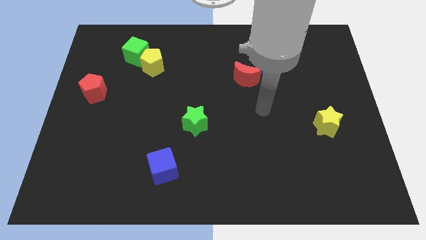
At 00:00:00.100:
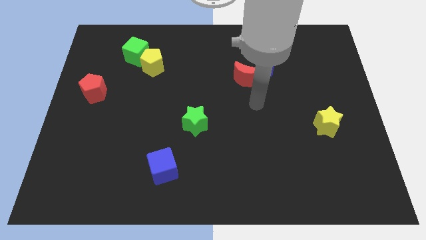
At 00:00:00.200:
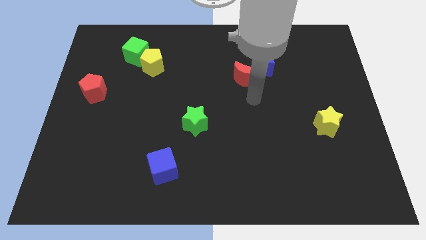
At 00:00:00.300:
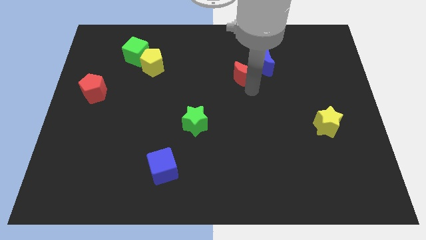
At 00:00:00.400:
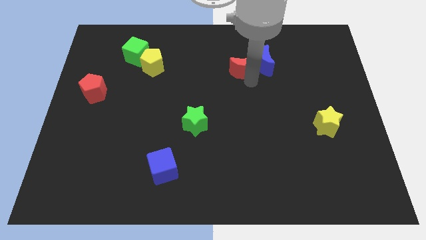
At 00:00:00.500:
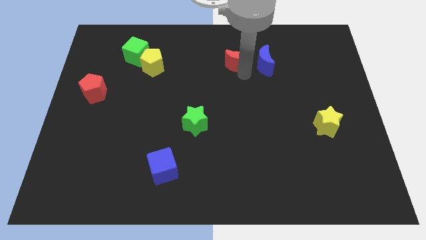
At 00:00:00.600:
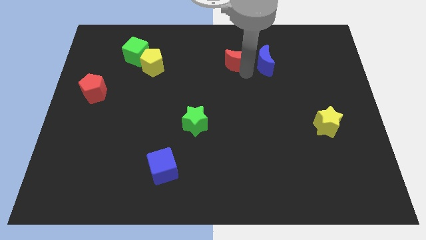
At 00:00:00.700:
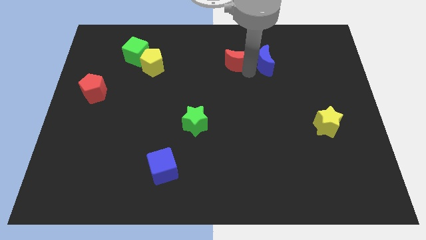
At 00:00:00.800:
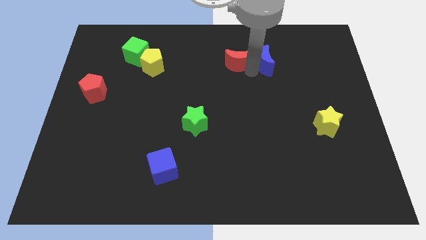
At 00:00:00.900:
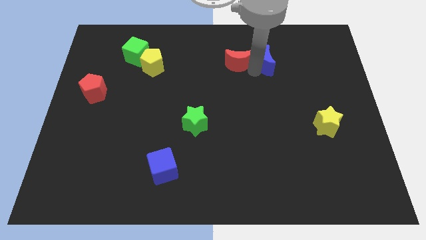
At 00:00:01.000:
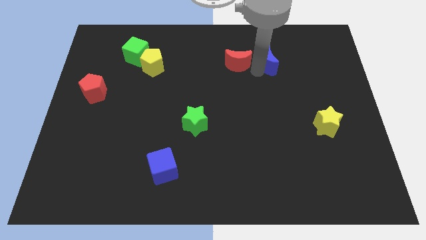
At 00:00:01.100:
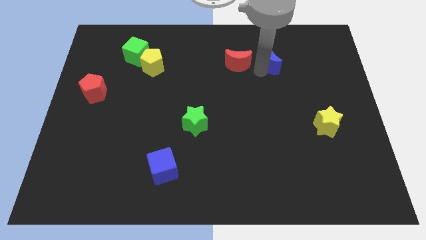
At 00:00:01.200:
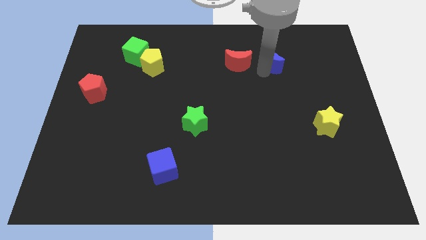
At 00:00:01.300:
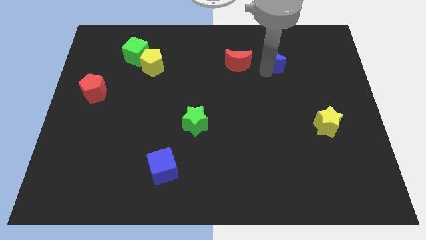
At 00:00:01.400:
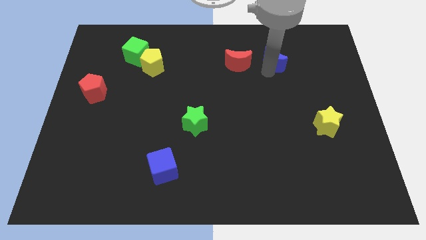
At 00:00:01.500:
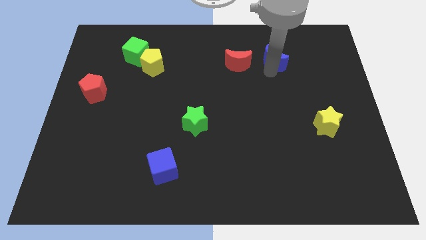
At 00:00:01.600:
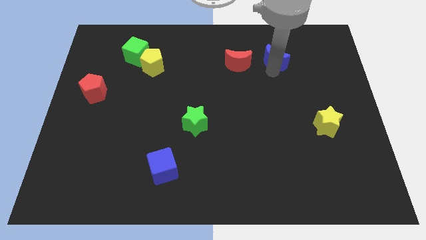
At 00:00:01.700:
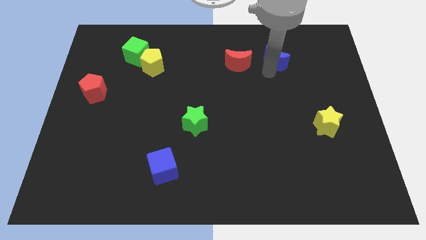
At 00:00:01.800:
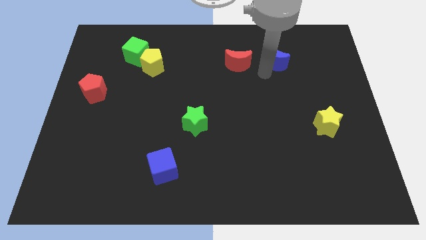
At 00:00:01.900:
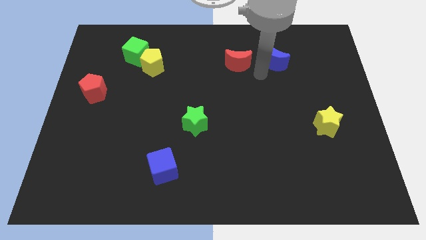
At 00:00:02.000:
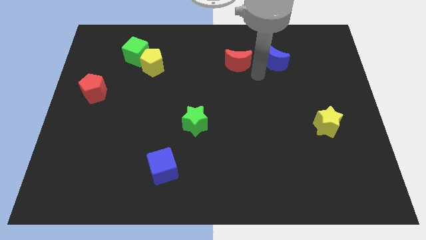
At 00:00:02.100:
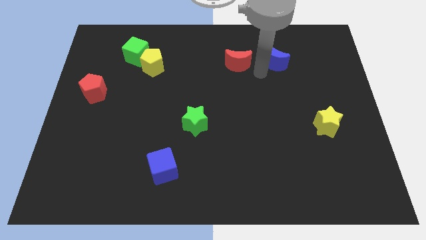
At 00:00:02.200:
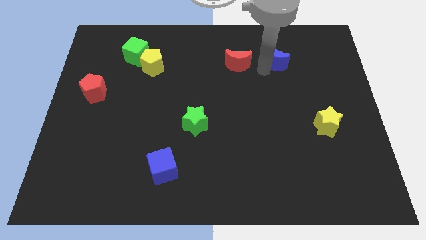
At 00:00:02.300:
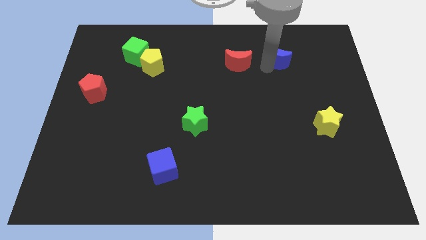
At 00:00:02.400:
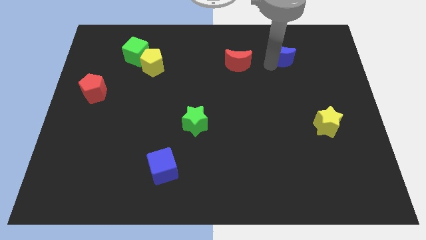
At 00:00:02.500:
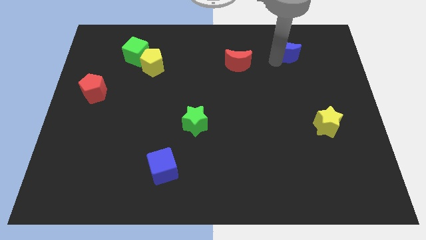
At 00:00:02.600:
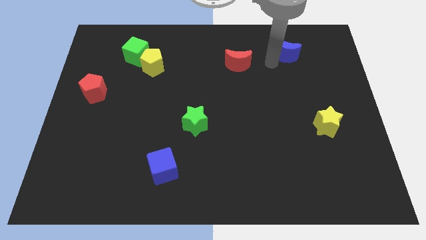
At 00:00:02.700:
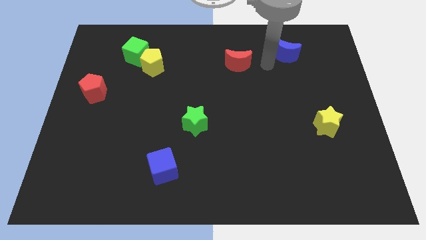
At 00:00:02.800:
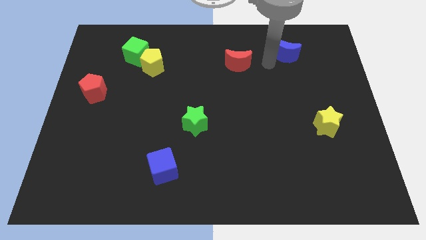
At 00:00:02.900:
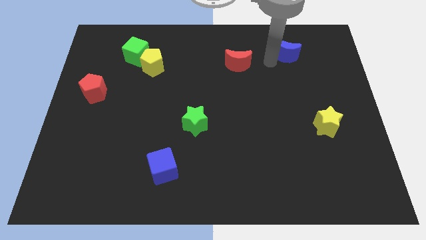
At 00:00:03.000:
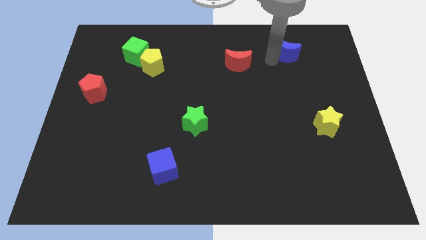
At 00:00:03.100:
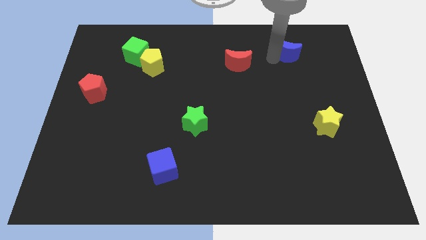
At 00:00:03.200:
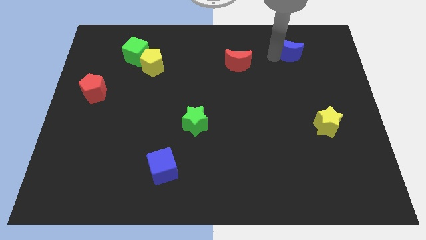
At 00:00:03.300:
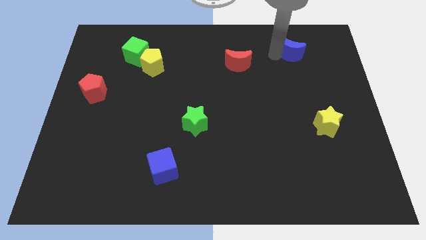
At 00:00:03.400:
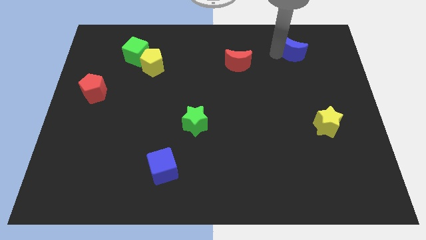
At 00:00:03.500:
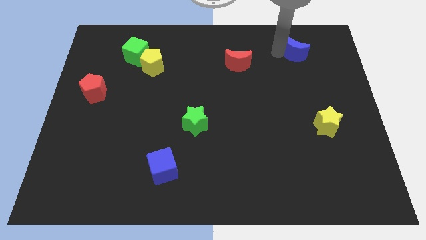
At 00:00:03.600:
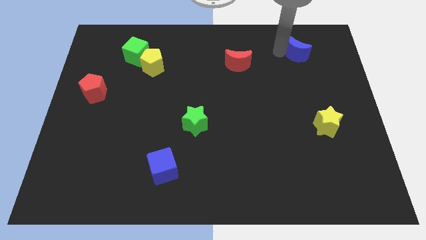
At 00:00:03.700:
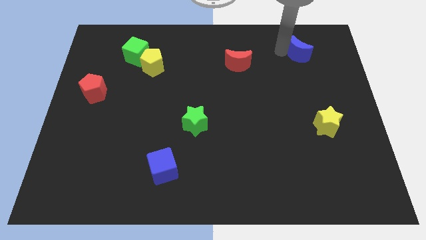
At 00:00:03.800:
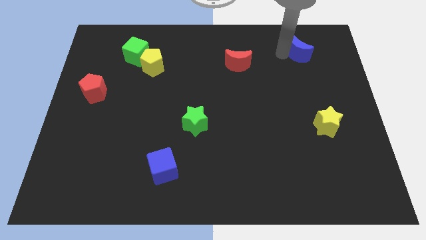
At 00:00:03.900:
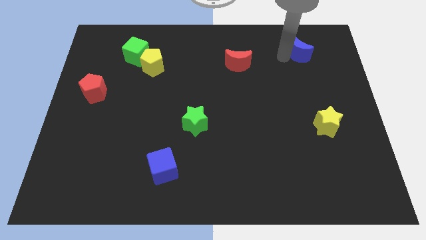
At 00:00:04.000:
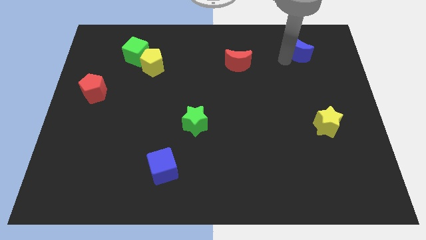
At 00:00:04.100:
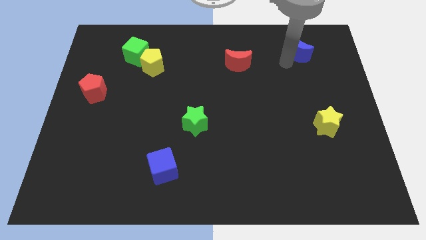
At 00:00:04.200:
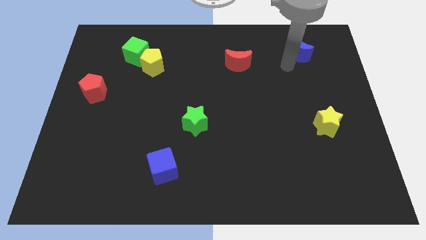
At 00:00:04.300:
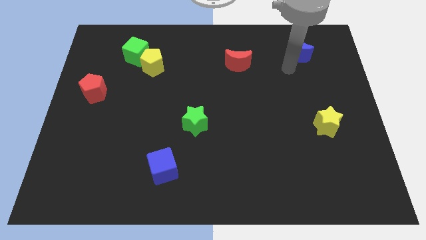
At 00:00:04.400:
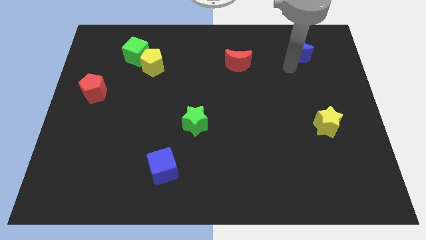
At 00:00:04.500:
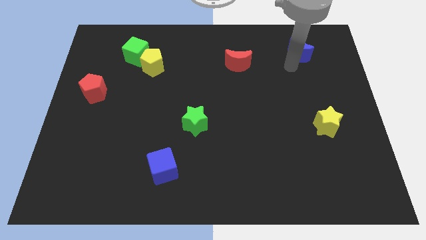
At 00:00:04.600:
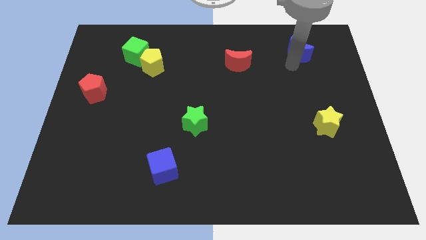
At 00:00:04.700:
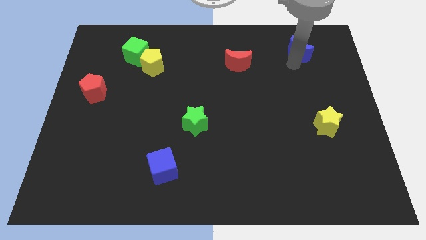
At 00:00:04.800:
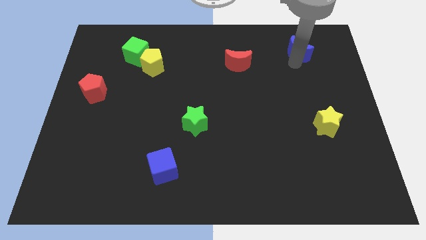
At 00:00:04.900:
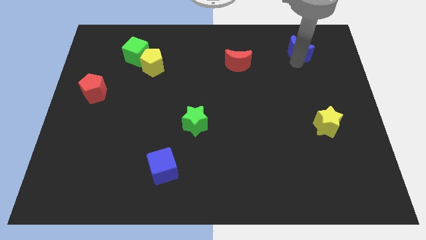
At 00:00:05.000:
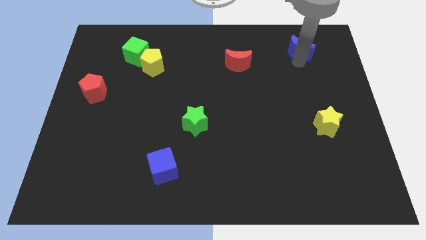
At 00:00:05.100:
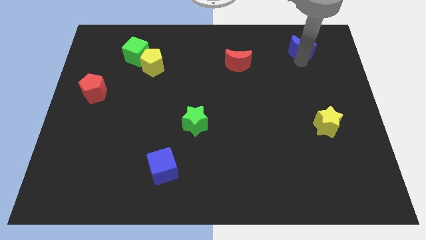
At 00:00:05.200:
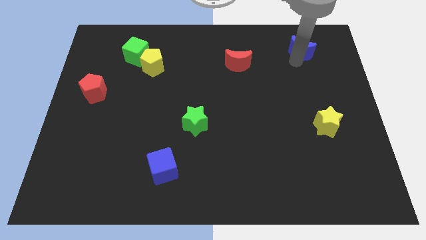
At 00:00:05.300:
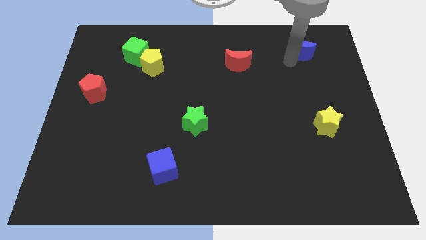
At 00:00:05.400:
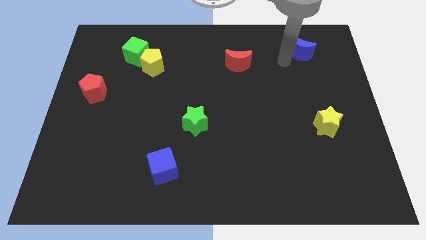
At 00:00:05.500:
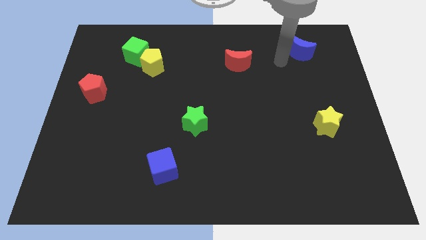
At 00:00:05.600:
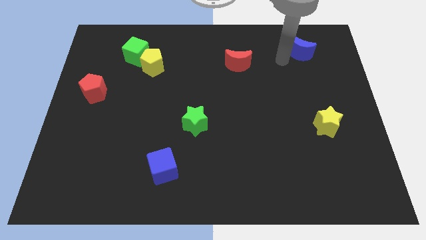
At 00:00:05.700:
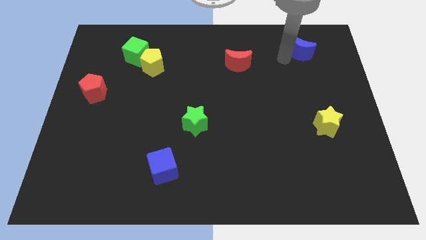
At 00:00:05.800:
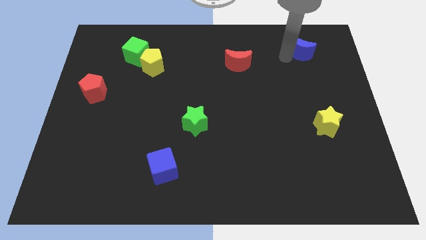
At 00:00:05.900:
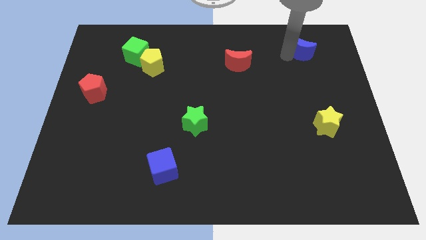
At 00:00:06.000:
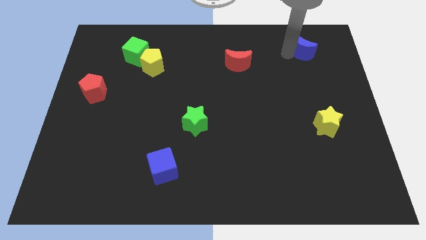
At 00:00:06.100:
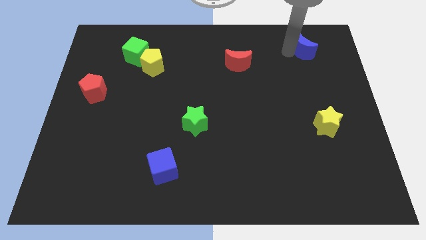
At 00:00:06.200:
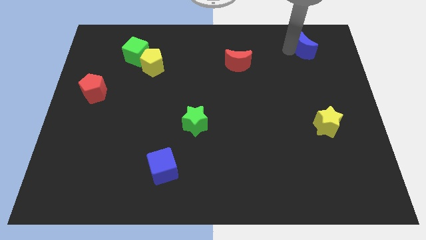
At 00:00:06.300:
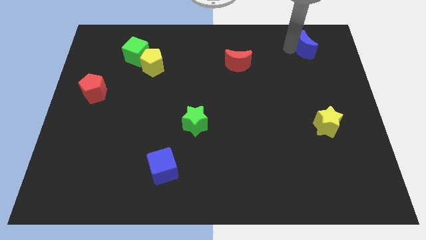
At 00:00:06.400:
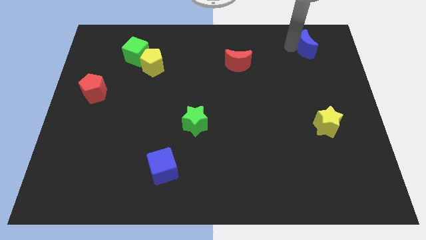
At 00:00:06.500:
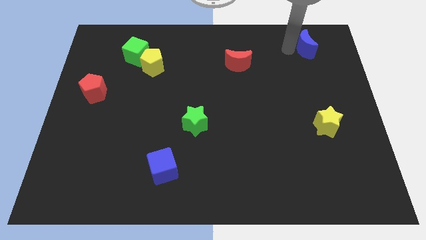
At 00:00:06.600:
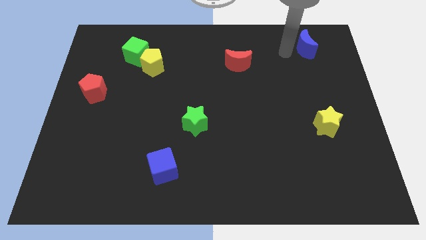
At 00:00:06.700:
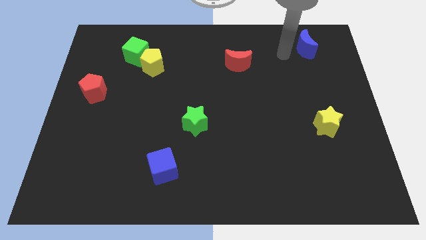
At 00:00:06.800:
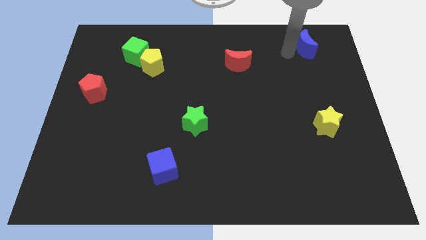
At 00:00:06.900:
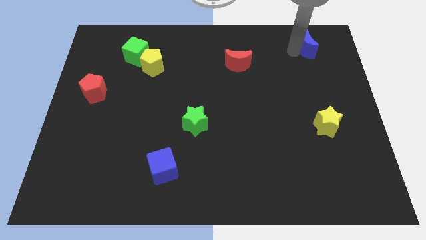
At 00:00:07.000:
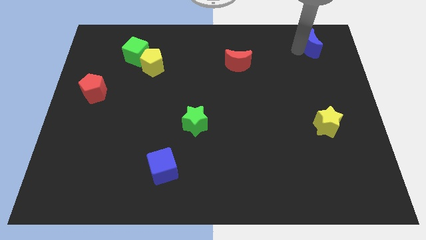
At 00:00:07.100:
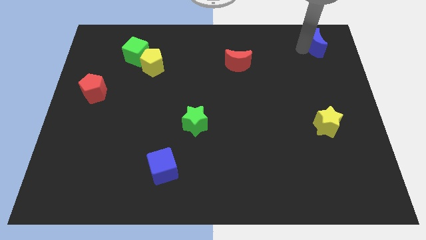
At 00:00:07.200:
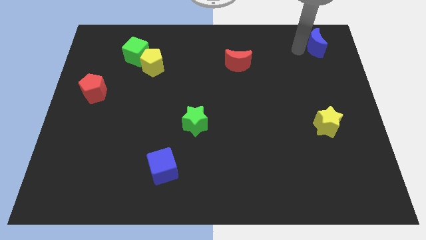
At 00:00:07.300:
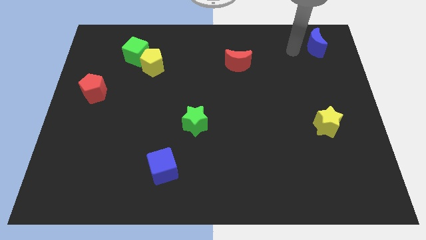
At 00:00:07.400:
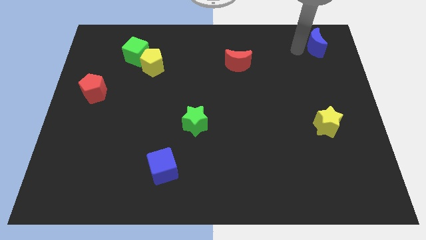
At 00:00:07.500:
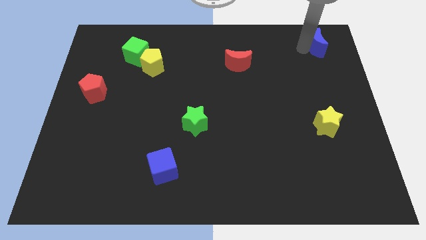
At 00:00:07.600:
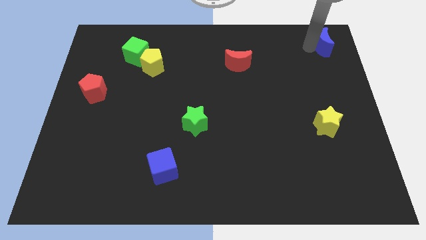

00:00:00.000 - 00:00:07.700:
put the blue moon to the top right
